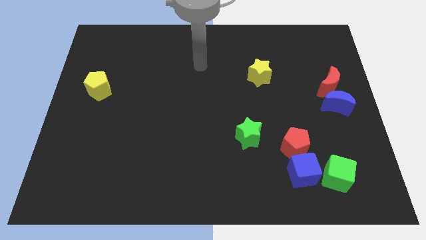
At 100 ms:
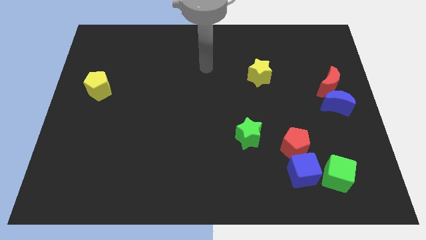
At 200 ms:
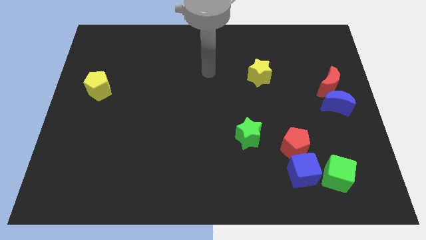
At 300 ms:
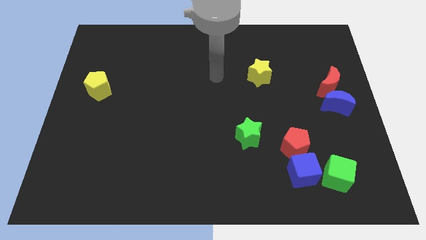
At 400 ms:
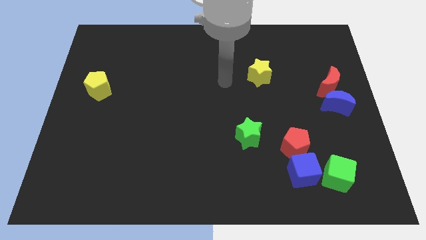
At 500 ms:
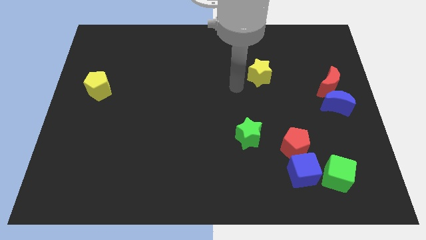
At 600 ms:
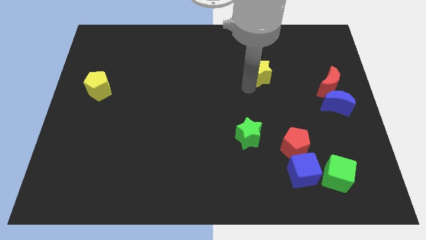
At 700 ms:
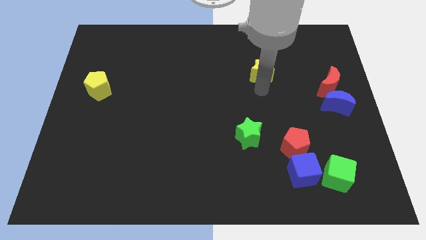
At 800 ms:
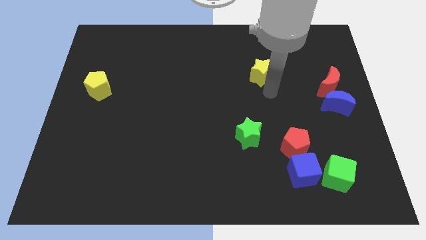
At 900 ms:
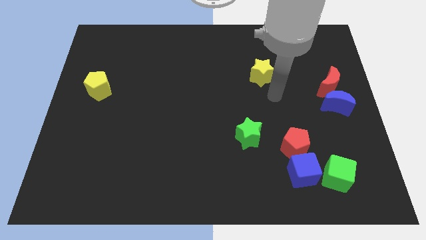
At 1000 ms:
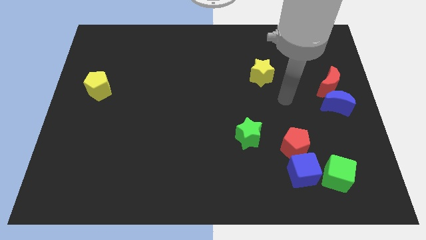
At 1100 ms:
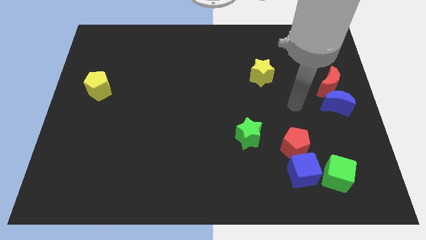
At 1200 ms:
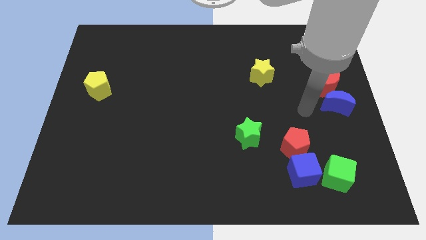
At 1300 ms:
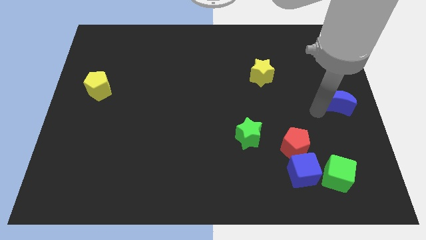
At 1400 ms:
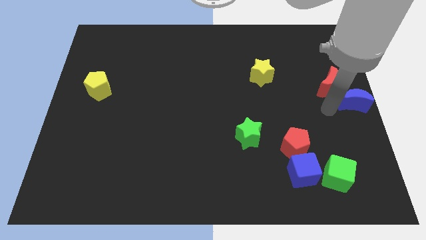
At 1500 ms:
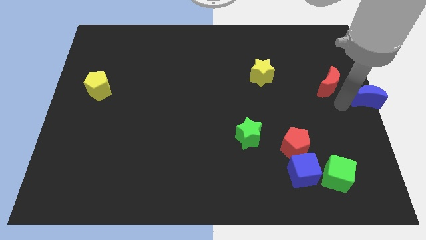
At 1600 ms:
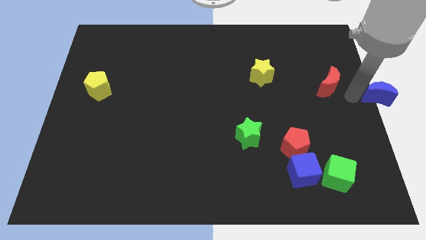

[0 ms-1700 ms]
move the red moon away from the blue moon

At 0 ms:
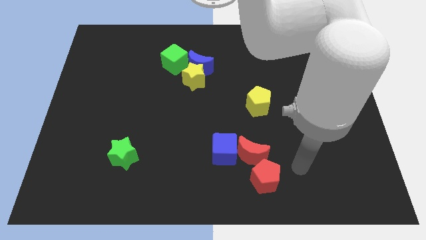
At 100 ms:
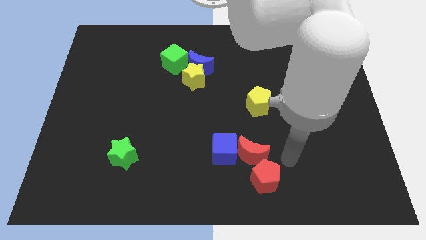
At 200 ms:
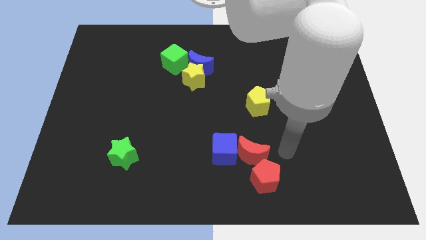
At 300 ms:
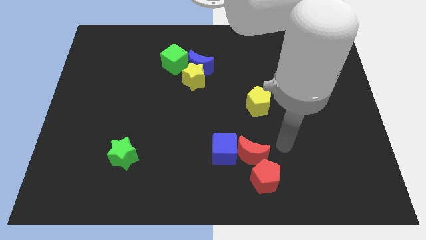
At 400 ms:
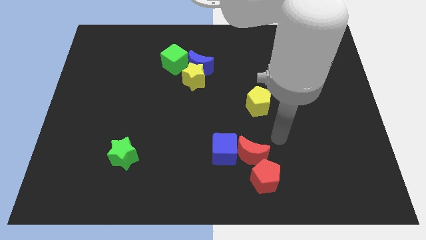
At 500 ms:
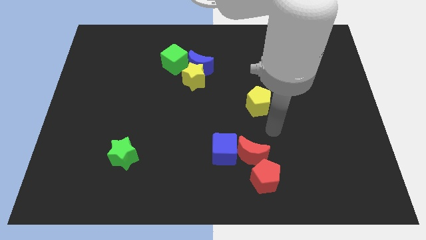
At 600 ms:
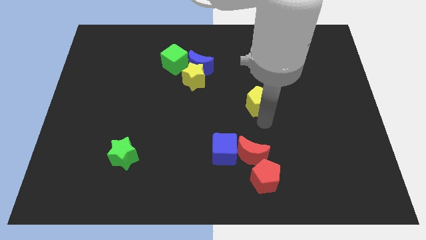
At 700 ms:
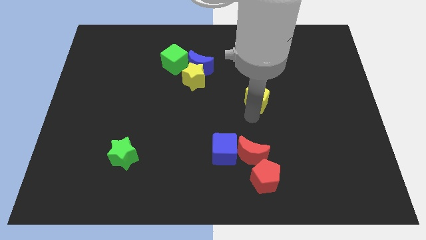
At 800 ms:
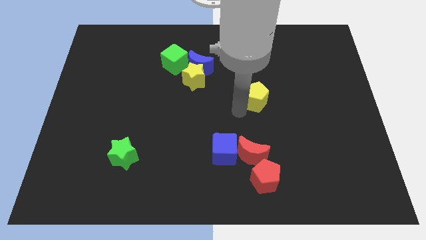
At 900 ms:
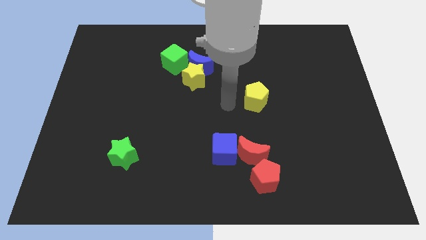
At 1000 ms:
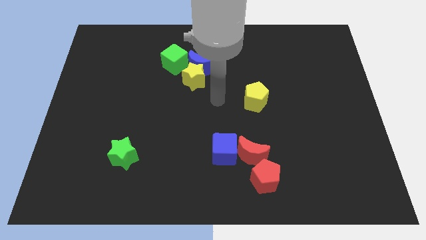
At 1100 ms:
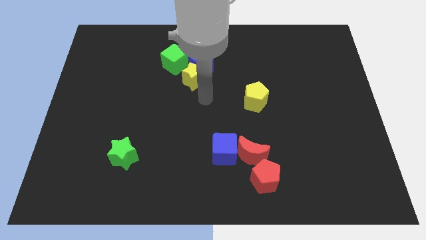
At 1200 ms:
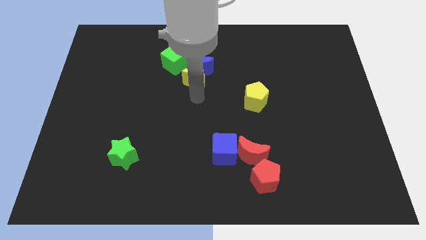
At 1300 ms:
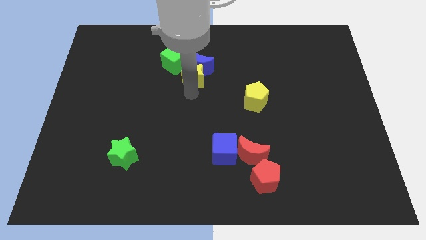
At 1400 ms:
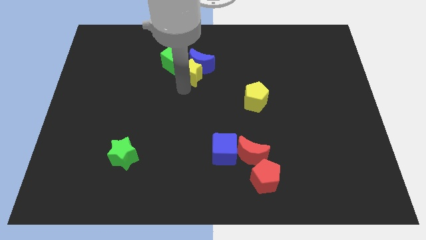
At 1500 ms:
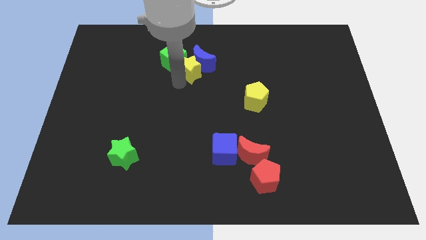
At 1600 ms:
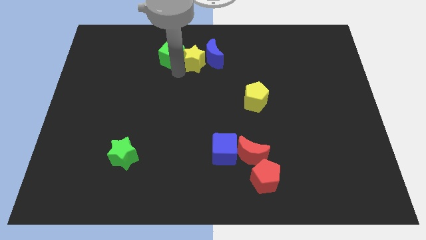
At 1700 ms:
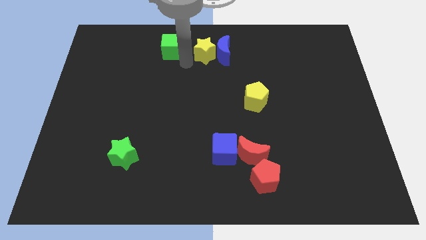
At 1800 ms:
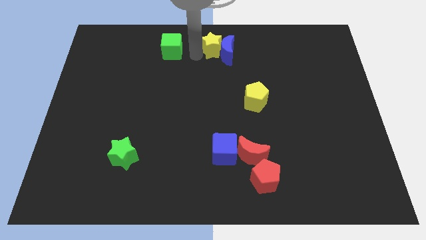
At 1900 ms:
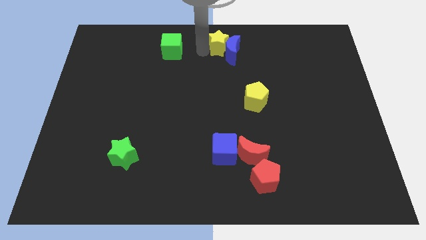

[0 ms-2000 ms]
separate the blue moon from the yellow star and green cube

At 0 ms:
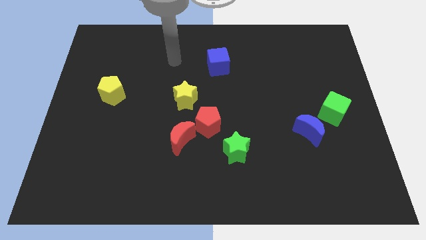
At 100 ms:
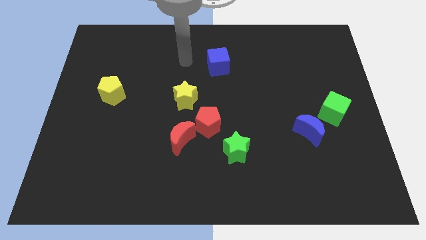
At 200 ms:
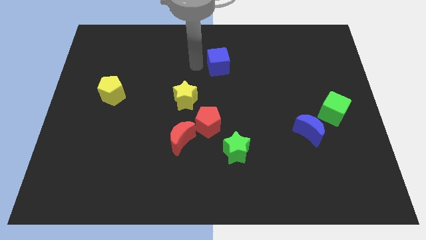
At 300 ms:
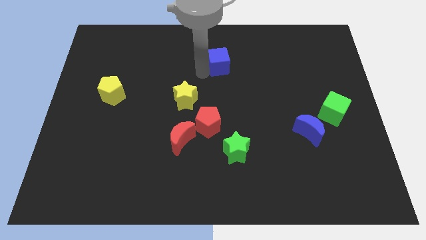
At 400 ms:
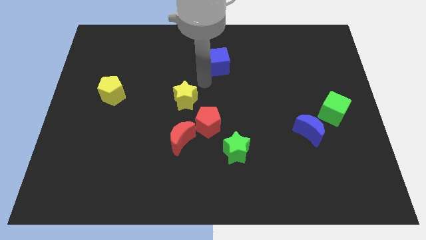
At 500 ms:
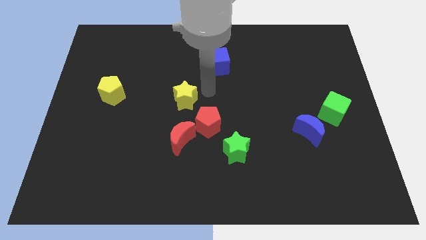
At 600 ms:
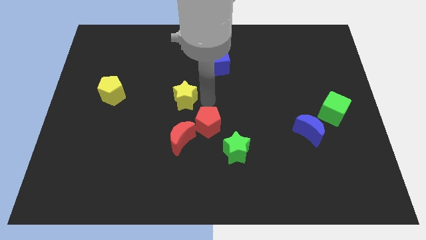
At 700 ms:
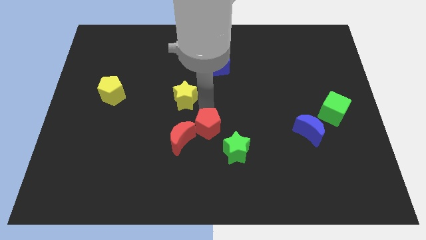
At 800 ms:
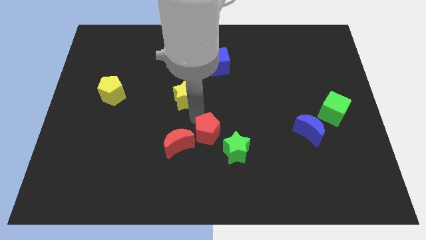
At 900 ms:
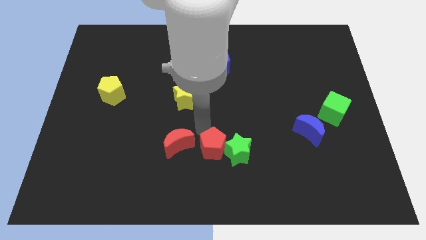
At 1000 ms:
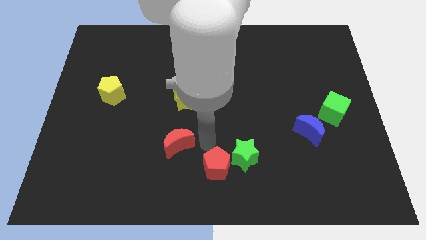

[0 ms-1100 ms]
pull the red moon apart from the red pentagon

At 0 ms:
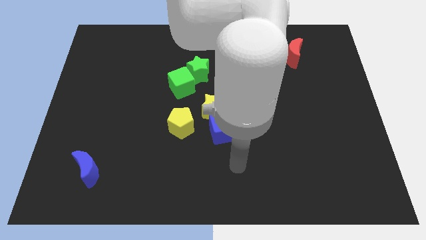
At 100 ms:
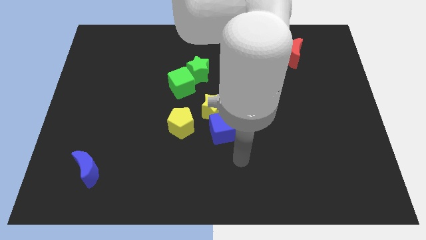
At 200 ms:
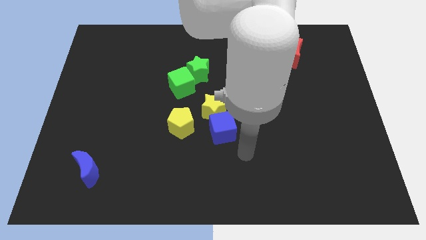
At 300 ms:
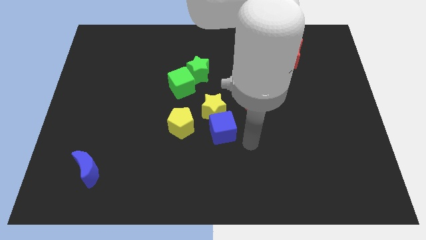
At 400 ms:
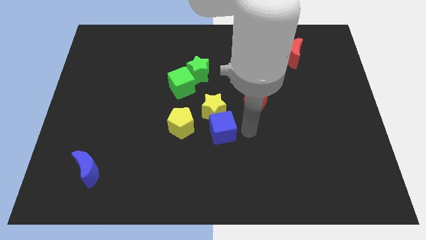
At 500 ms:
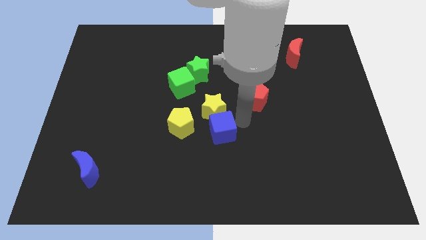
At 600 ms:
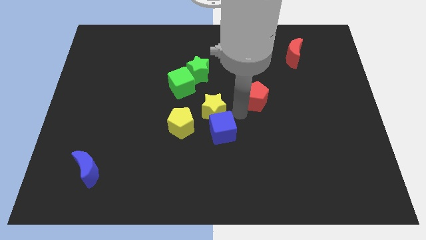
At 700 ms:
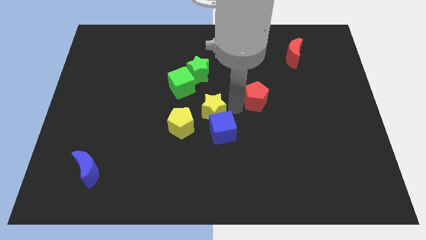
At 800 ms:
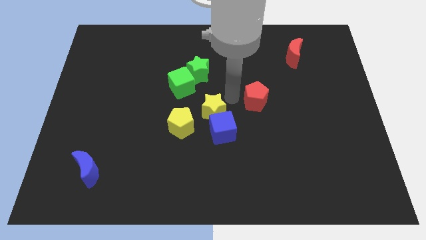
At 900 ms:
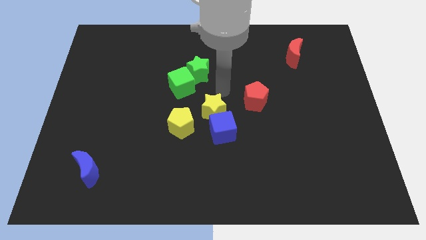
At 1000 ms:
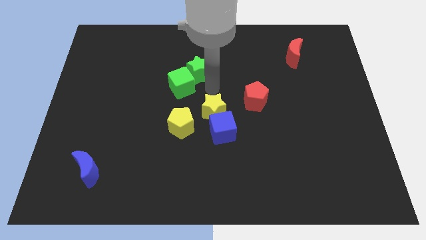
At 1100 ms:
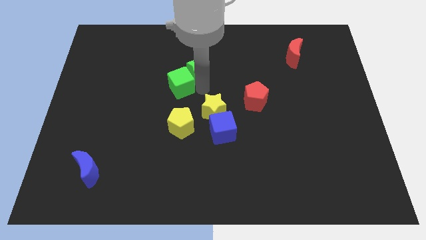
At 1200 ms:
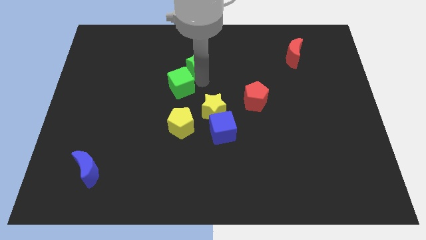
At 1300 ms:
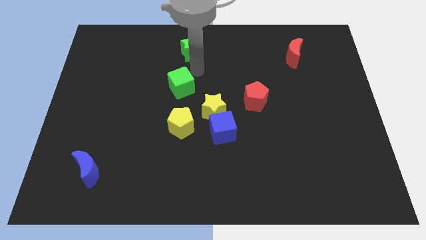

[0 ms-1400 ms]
pull the green cube apart from the green star

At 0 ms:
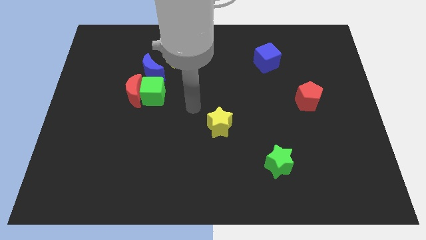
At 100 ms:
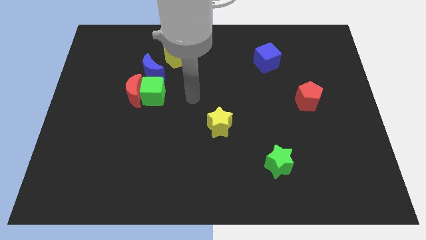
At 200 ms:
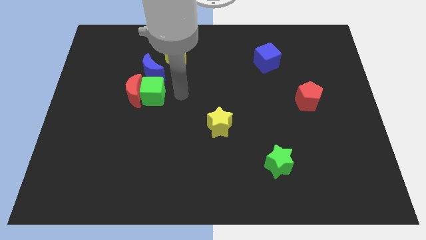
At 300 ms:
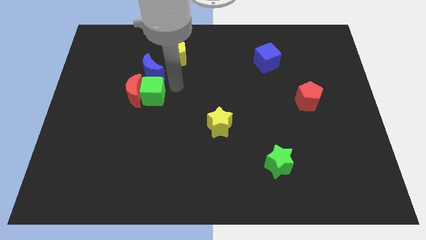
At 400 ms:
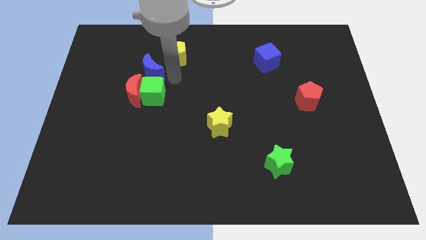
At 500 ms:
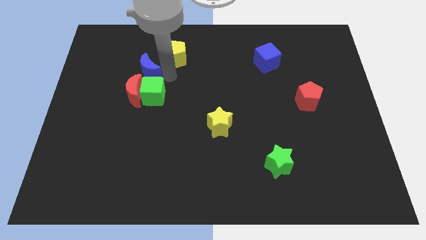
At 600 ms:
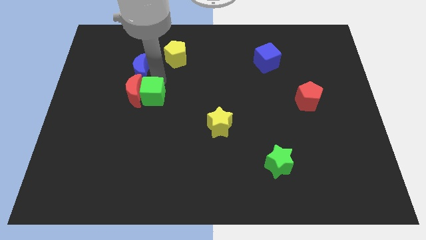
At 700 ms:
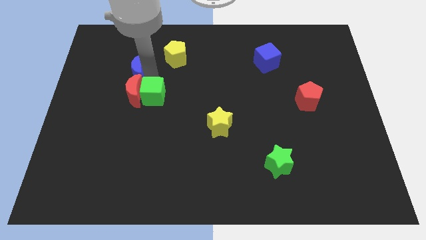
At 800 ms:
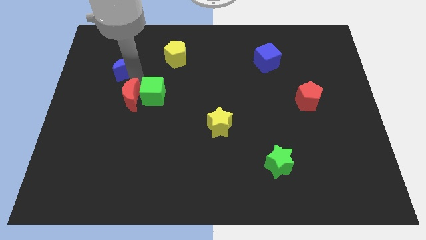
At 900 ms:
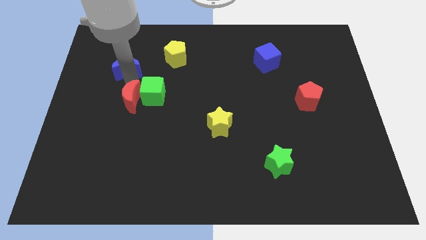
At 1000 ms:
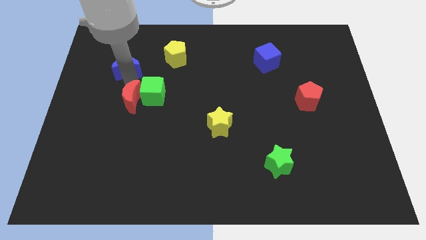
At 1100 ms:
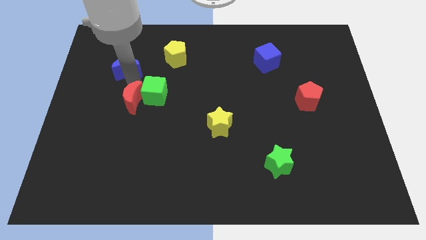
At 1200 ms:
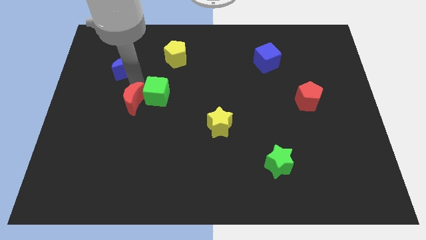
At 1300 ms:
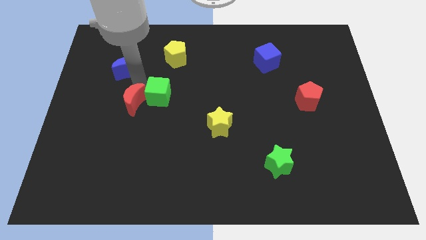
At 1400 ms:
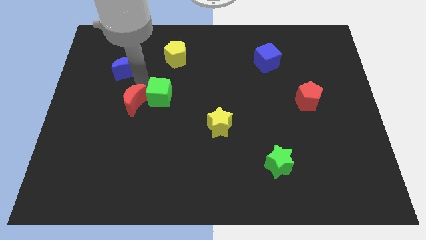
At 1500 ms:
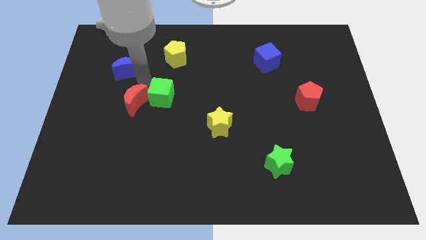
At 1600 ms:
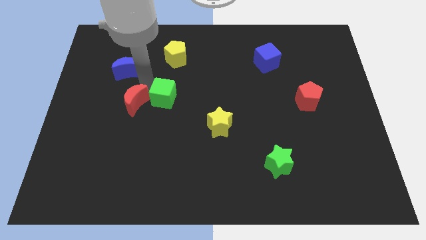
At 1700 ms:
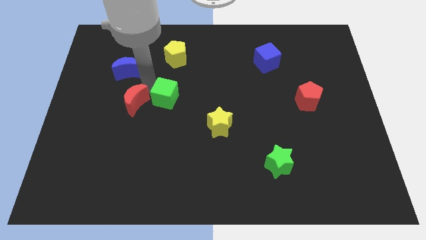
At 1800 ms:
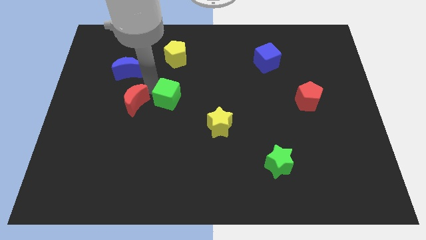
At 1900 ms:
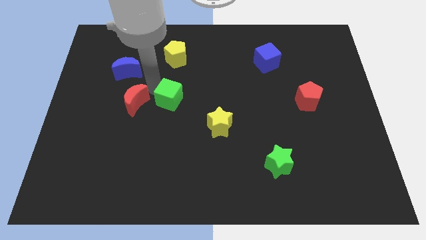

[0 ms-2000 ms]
move the green cube away from the red moon and blue moon

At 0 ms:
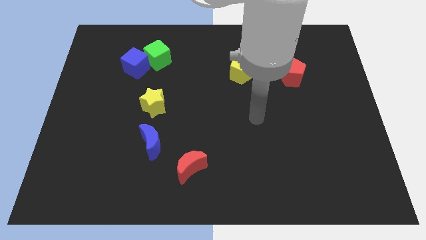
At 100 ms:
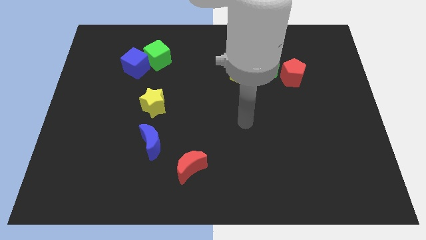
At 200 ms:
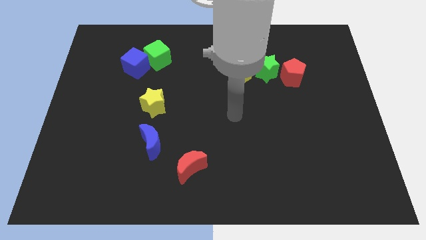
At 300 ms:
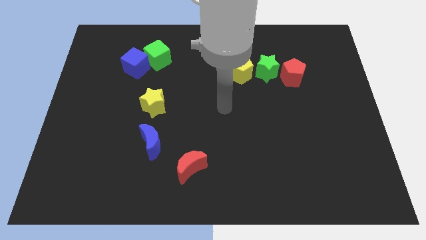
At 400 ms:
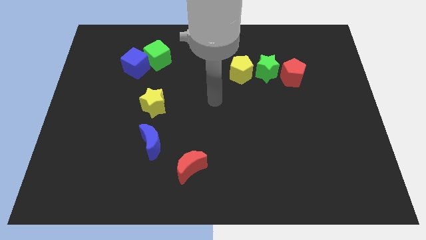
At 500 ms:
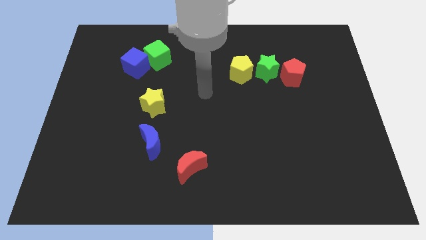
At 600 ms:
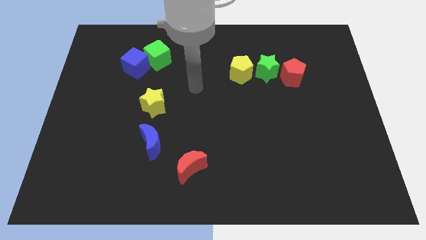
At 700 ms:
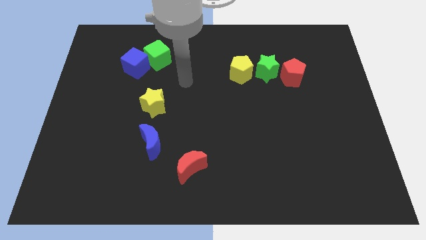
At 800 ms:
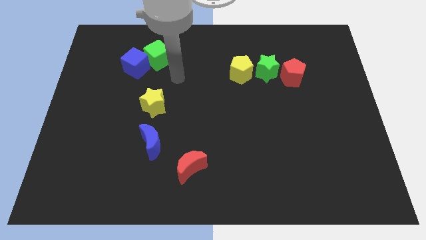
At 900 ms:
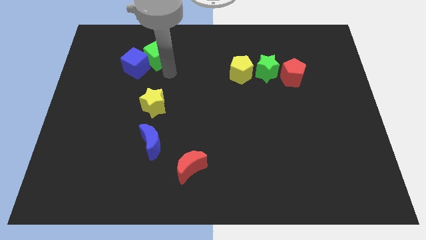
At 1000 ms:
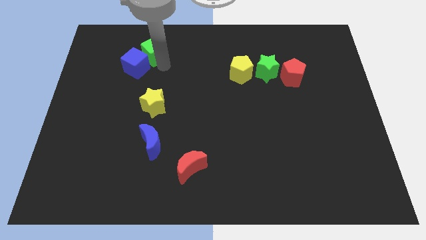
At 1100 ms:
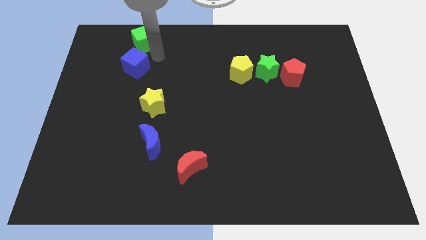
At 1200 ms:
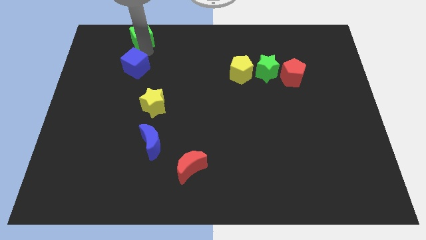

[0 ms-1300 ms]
pull the blue cube apart from the green cube
